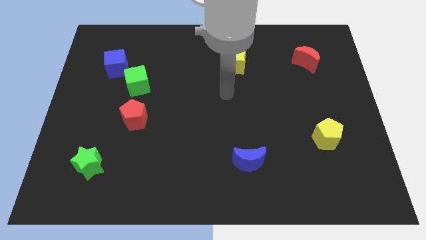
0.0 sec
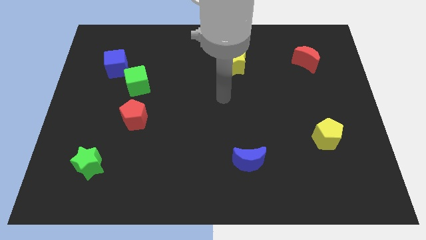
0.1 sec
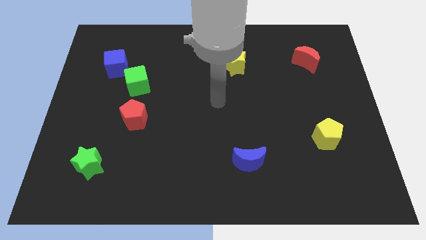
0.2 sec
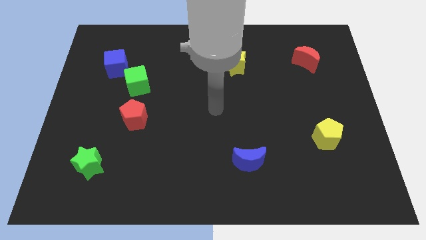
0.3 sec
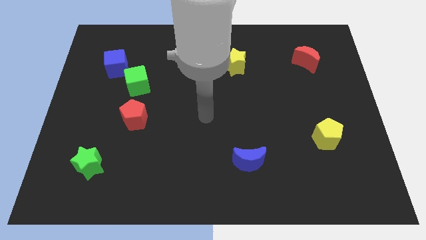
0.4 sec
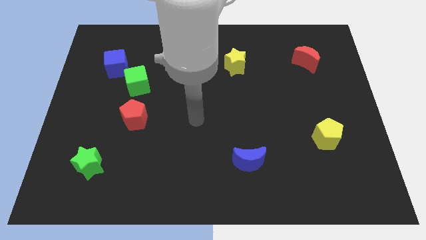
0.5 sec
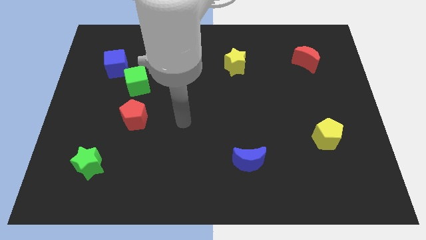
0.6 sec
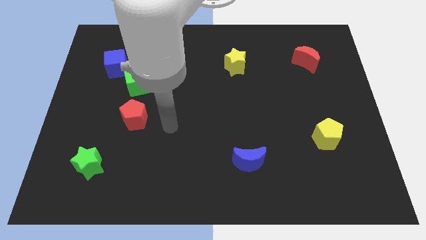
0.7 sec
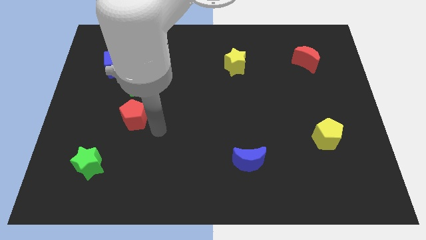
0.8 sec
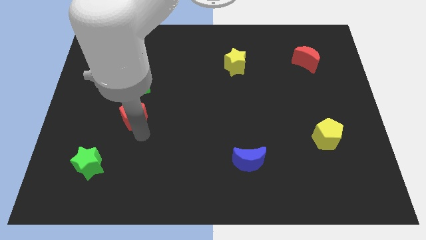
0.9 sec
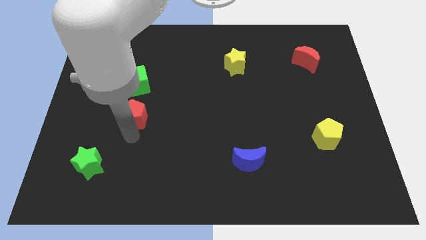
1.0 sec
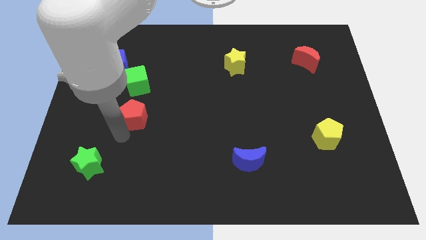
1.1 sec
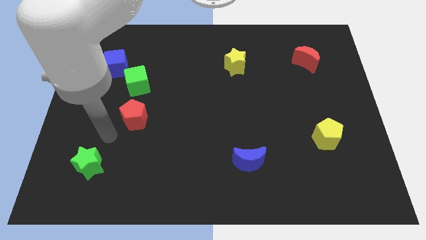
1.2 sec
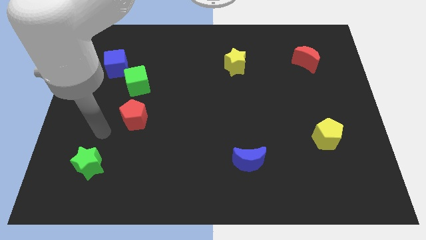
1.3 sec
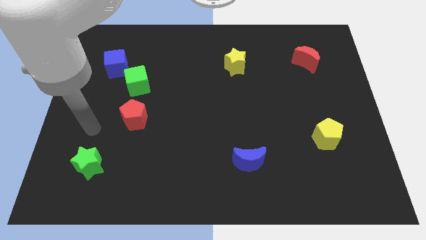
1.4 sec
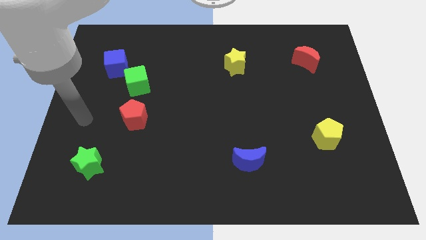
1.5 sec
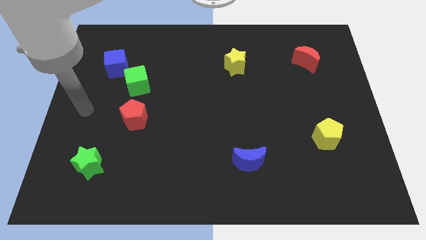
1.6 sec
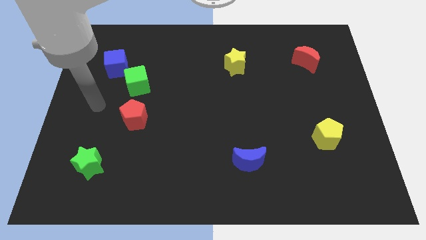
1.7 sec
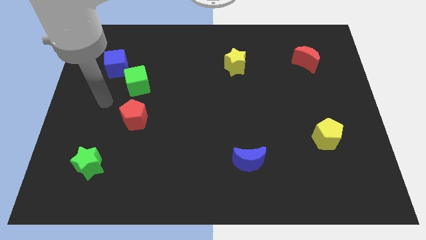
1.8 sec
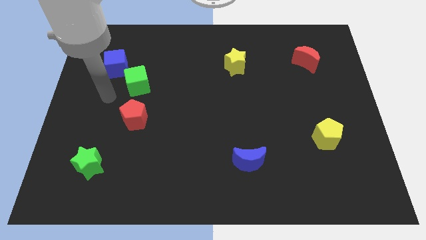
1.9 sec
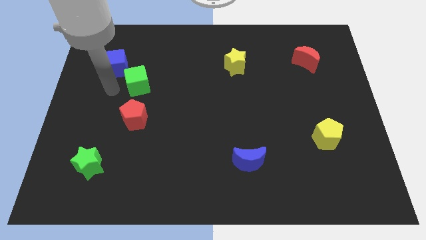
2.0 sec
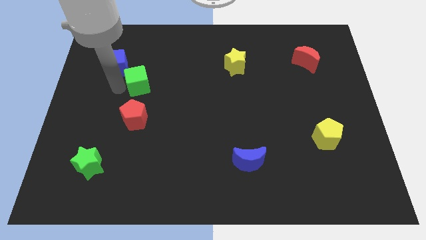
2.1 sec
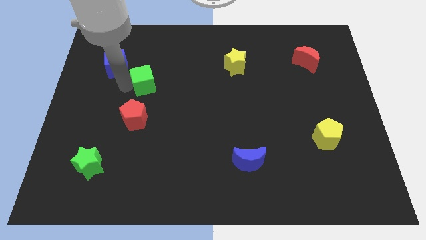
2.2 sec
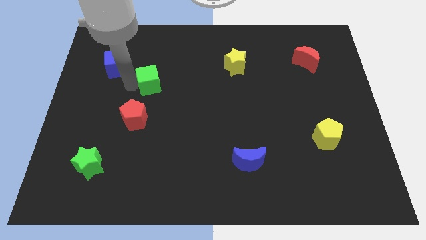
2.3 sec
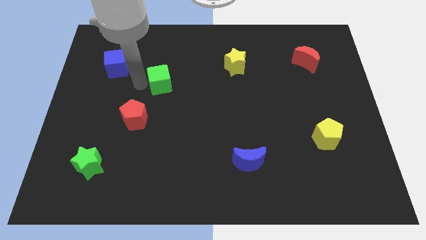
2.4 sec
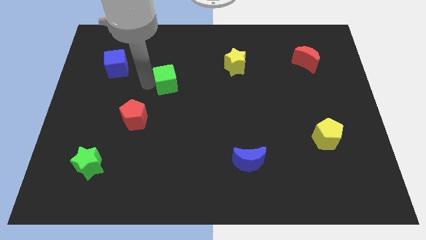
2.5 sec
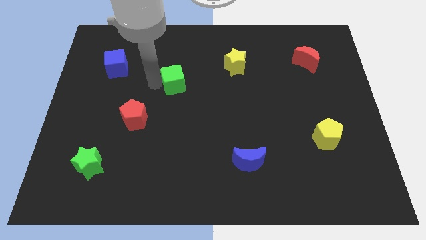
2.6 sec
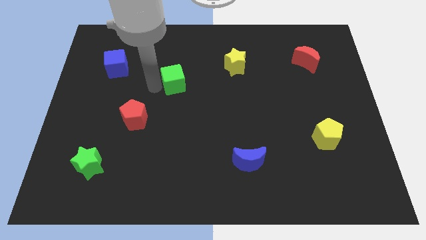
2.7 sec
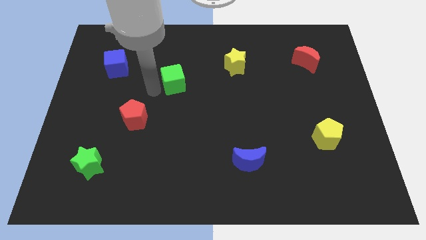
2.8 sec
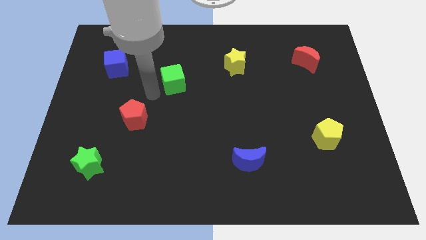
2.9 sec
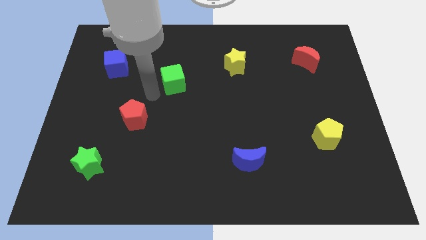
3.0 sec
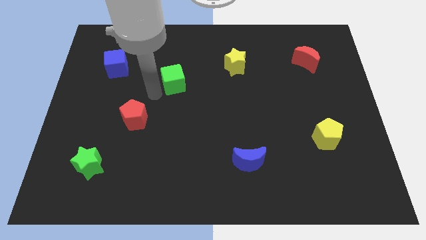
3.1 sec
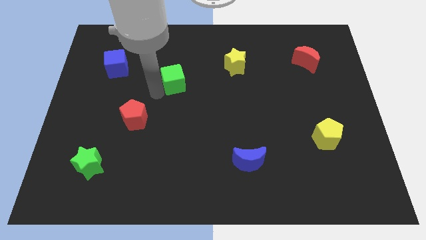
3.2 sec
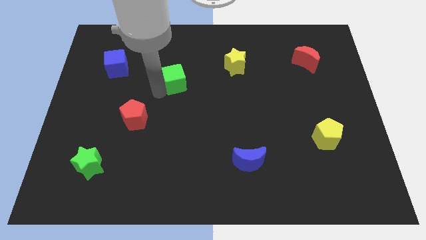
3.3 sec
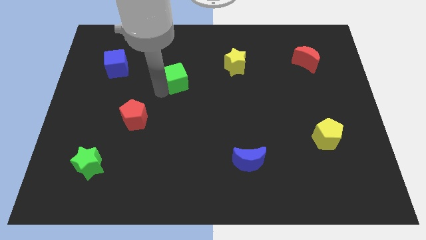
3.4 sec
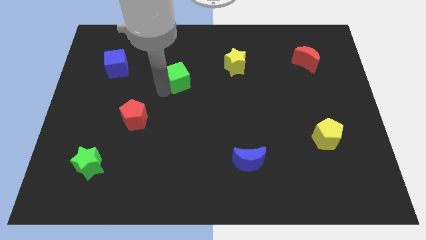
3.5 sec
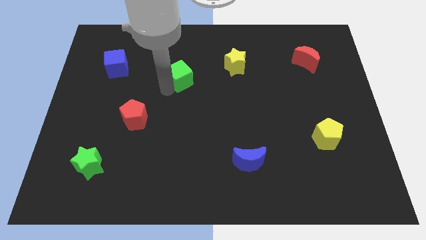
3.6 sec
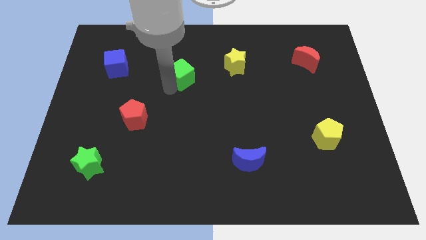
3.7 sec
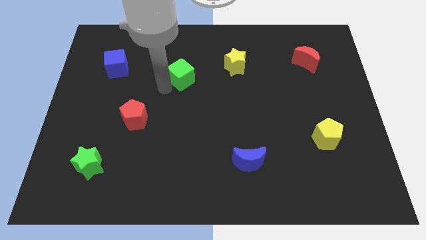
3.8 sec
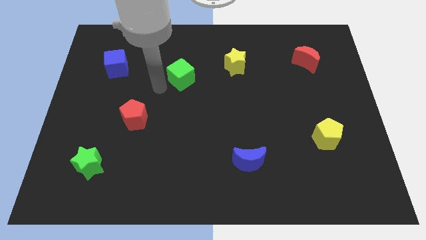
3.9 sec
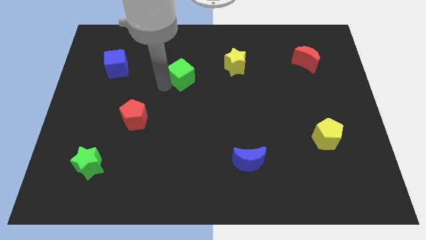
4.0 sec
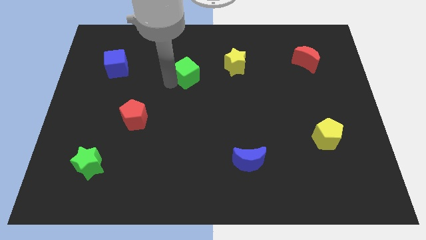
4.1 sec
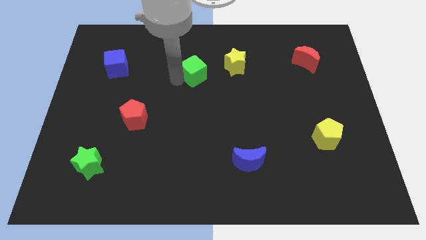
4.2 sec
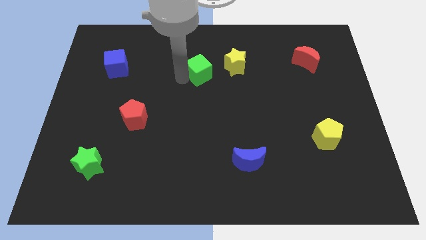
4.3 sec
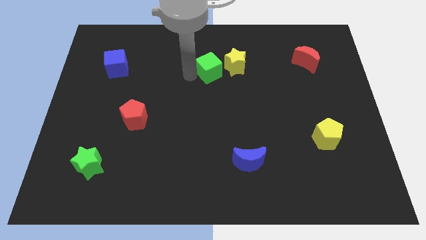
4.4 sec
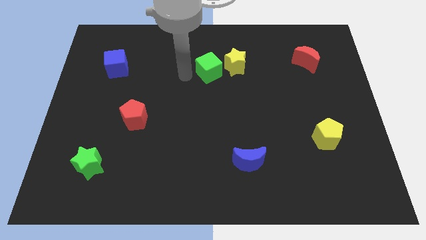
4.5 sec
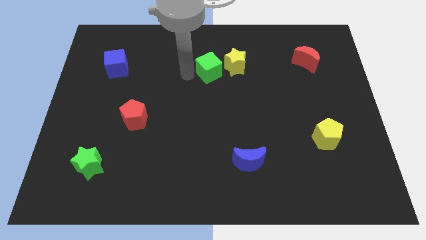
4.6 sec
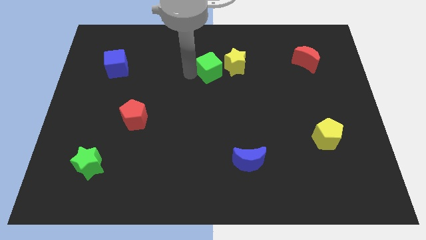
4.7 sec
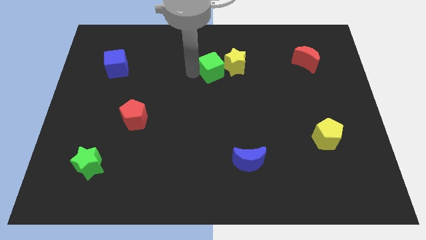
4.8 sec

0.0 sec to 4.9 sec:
slide the green cube to the yellow star

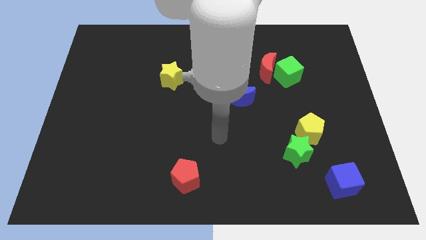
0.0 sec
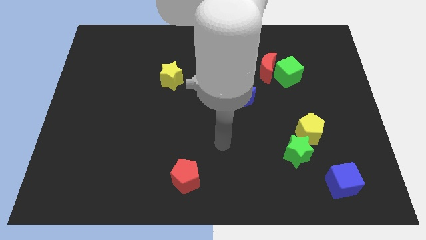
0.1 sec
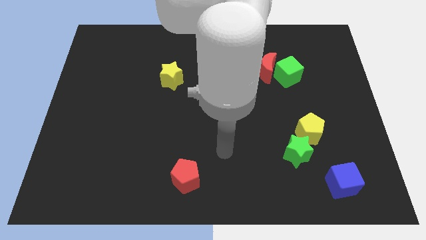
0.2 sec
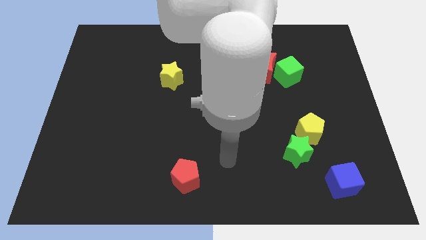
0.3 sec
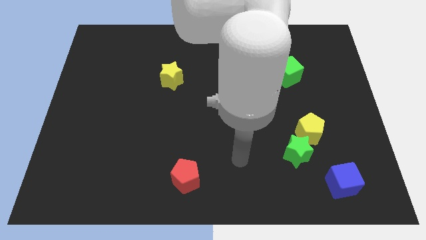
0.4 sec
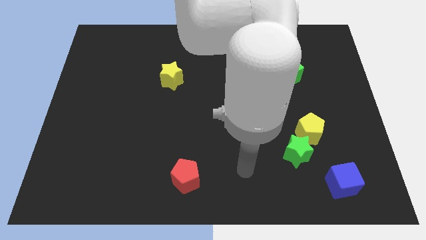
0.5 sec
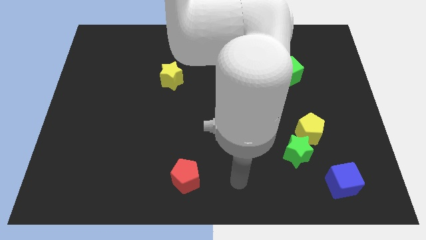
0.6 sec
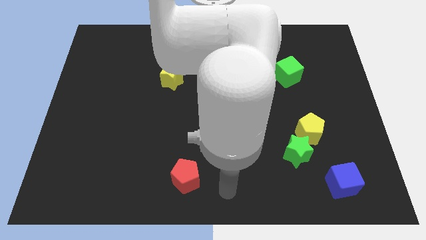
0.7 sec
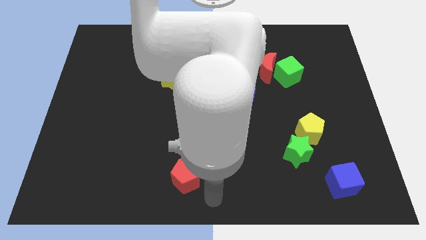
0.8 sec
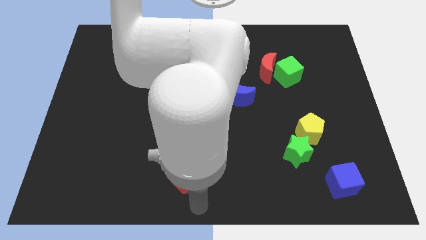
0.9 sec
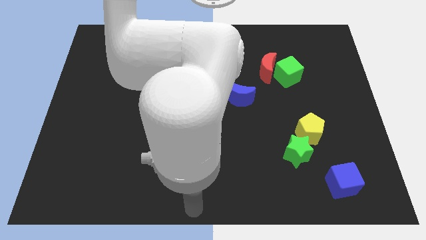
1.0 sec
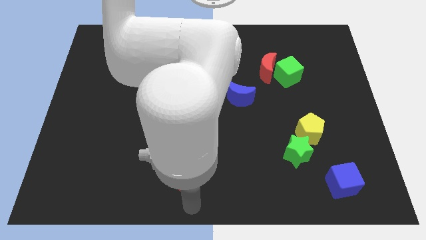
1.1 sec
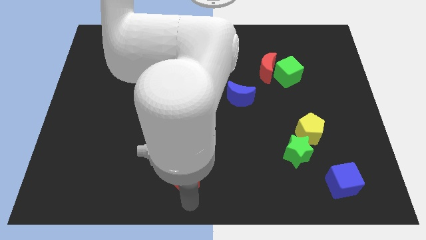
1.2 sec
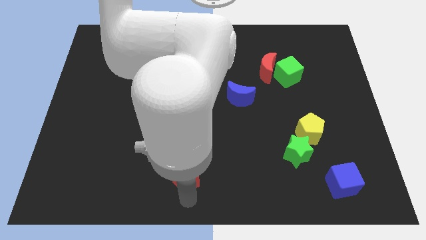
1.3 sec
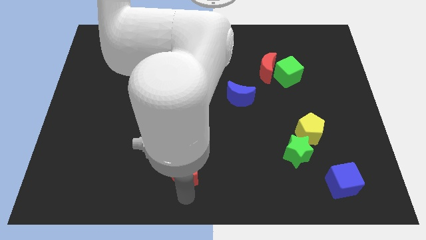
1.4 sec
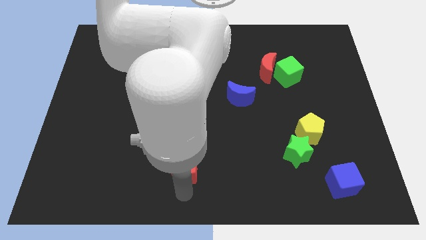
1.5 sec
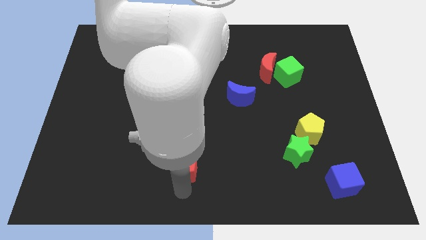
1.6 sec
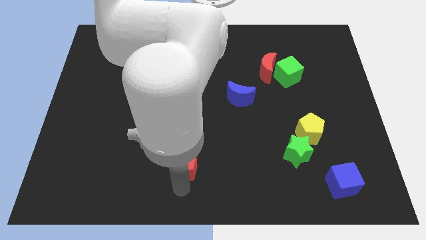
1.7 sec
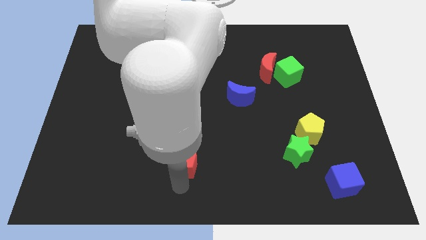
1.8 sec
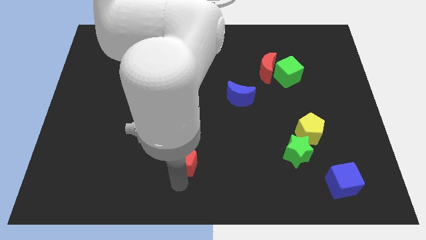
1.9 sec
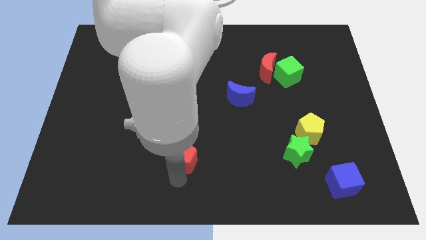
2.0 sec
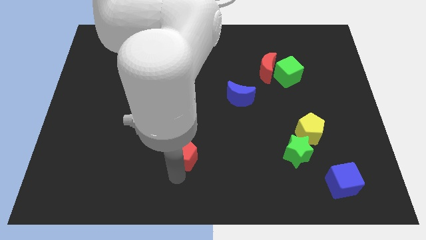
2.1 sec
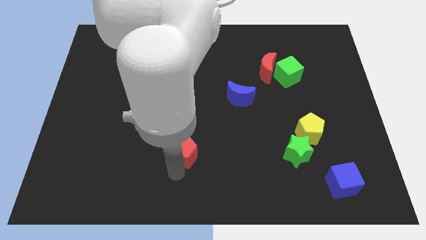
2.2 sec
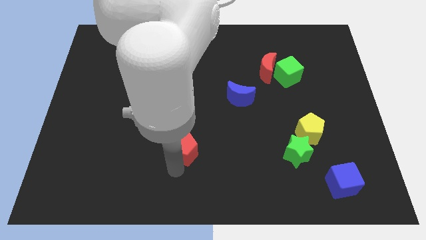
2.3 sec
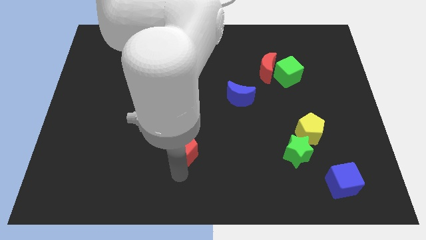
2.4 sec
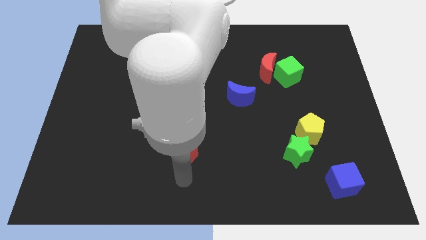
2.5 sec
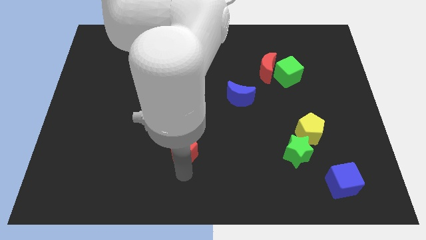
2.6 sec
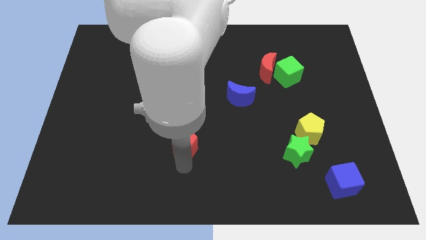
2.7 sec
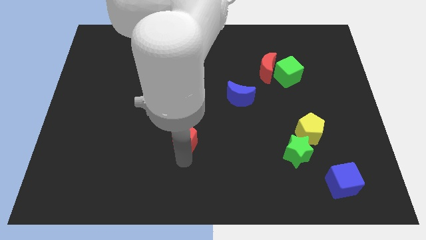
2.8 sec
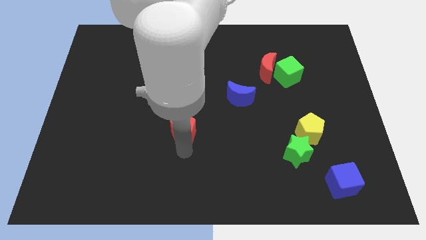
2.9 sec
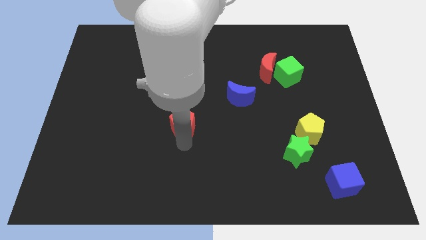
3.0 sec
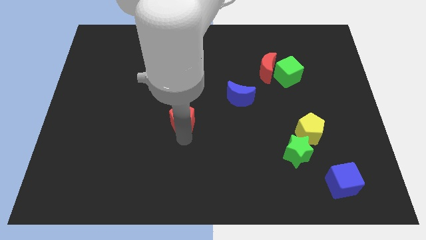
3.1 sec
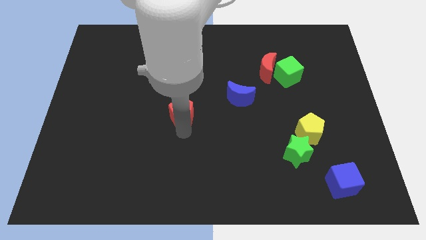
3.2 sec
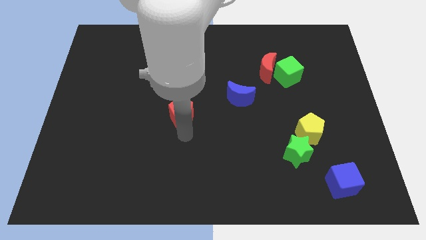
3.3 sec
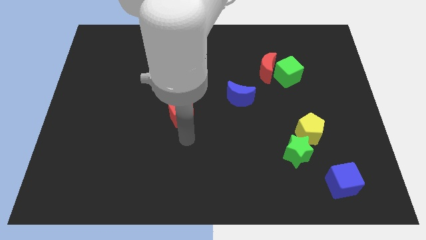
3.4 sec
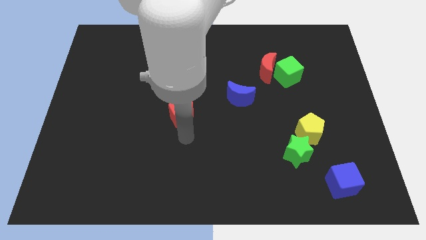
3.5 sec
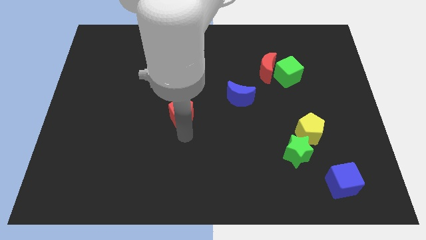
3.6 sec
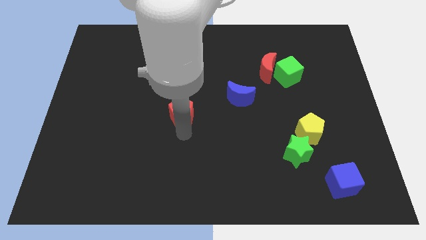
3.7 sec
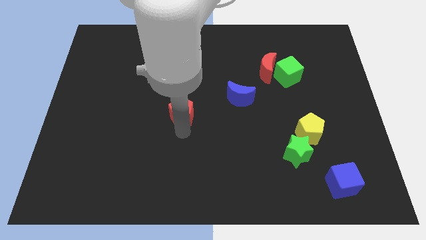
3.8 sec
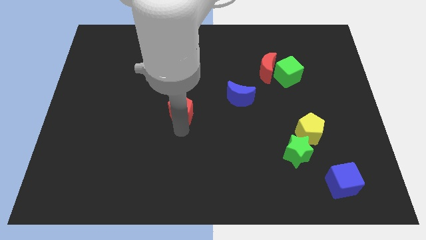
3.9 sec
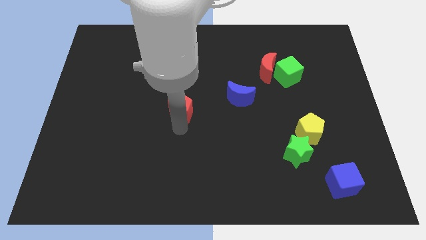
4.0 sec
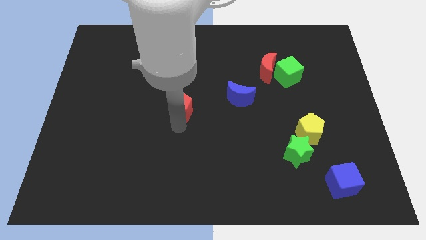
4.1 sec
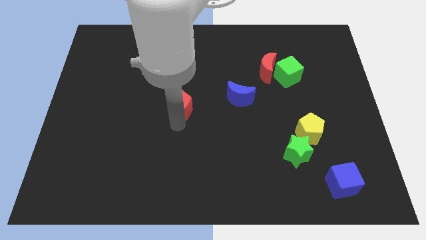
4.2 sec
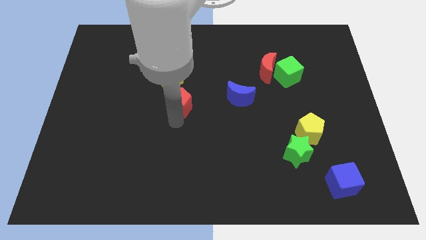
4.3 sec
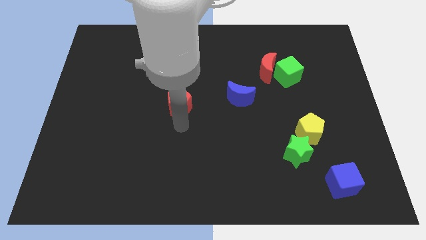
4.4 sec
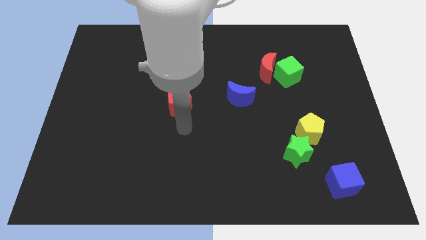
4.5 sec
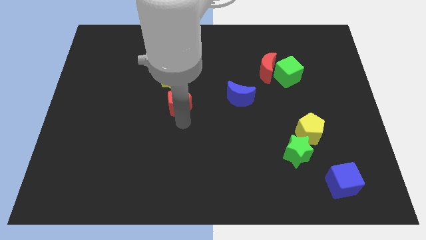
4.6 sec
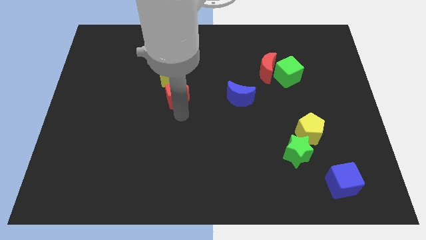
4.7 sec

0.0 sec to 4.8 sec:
slide the red pentagon next to the yellow star
